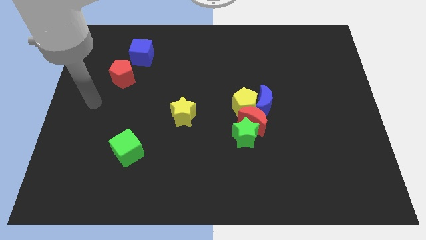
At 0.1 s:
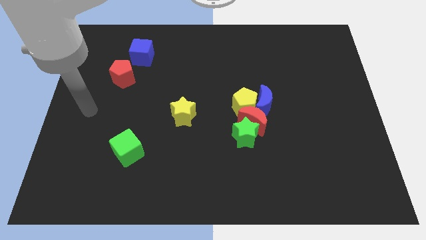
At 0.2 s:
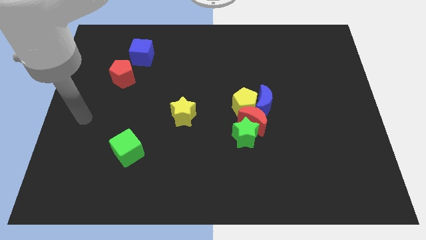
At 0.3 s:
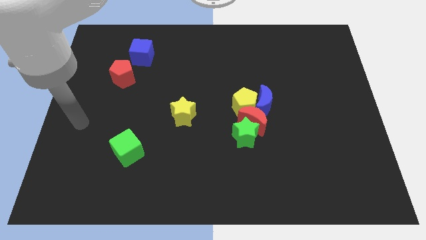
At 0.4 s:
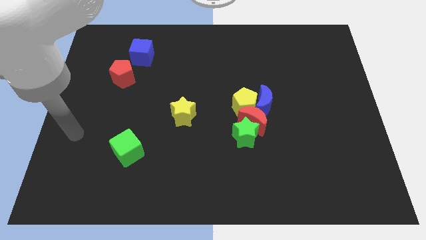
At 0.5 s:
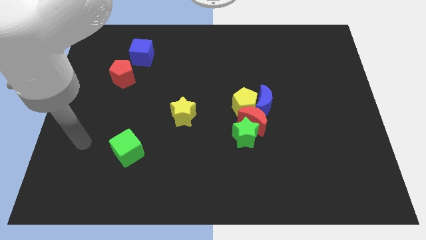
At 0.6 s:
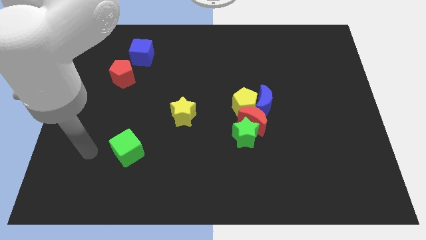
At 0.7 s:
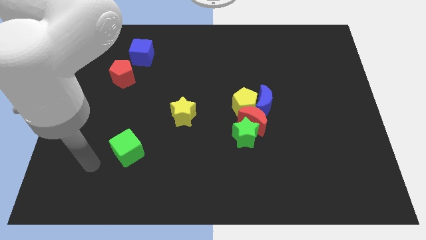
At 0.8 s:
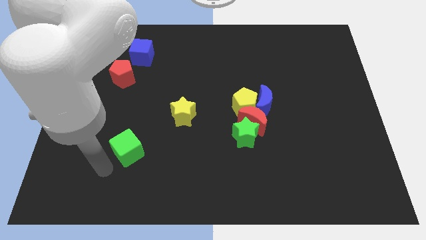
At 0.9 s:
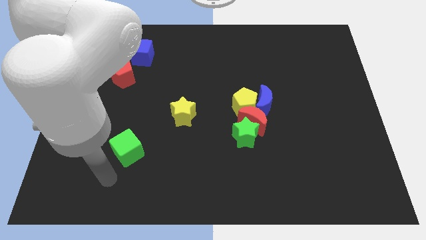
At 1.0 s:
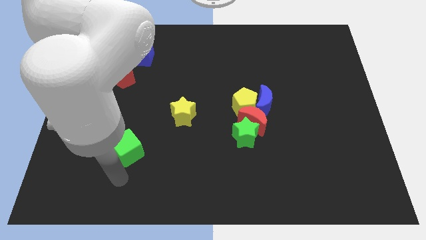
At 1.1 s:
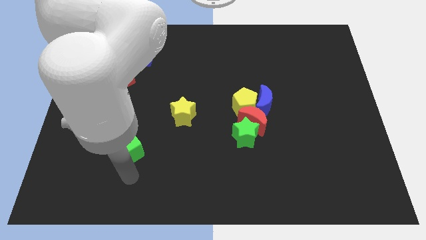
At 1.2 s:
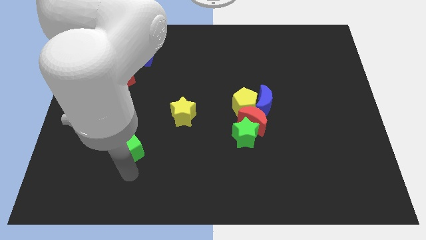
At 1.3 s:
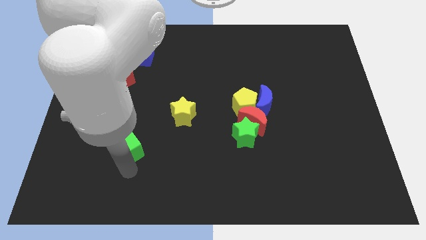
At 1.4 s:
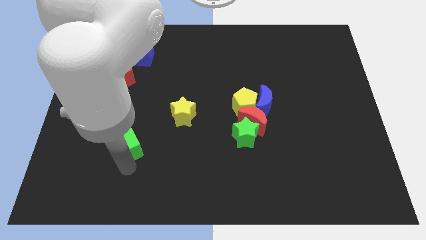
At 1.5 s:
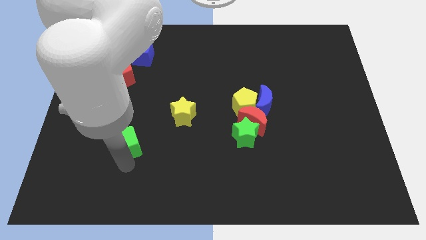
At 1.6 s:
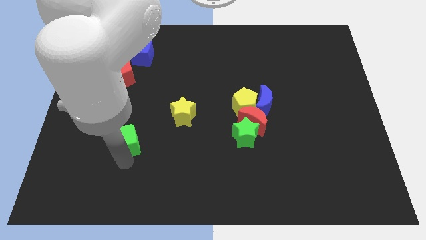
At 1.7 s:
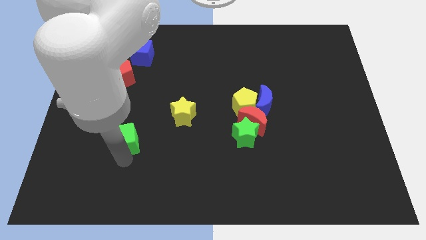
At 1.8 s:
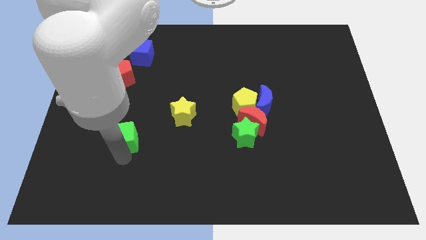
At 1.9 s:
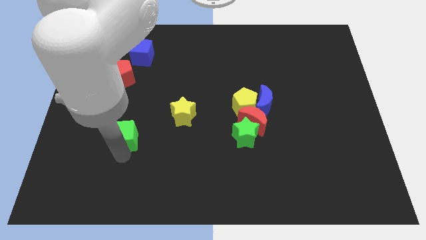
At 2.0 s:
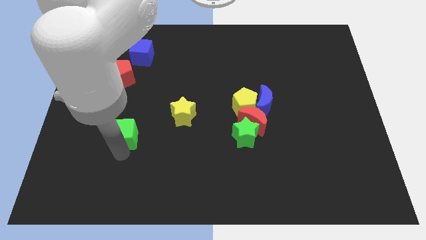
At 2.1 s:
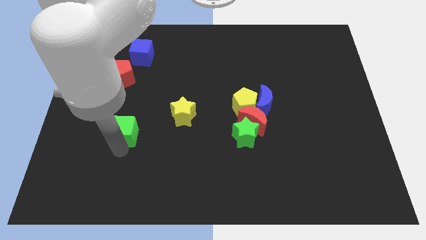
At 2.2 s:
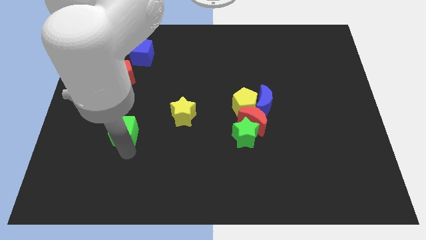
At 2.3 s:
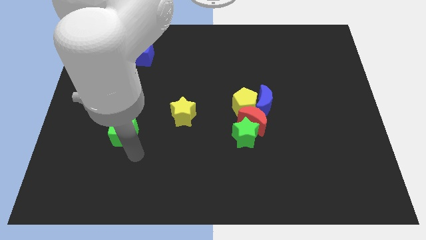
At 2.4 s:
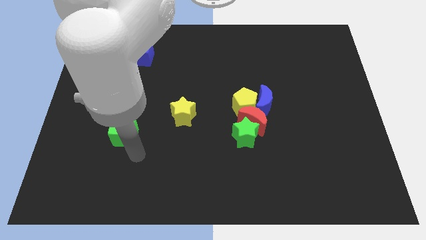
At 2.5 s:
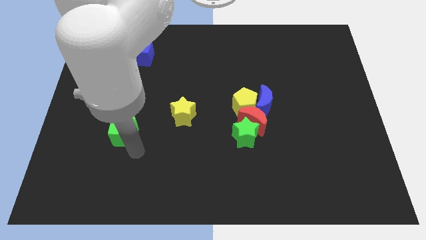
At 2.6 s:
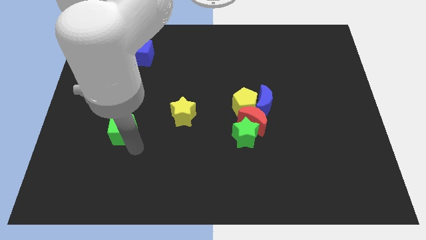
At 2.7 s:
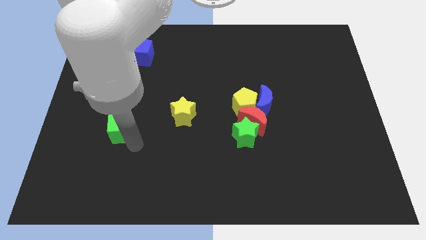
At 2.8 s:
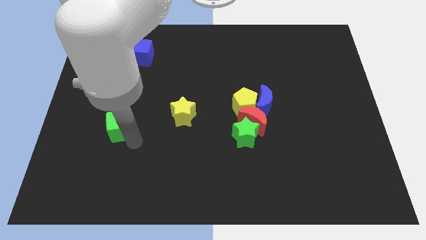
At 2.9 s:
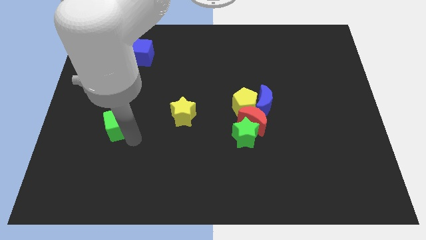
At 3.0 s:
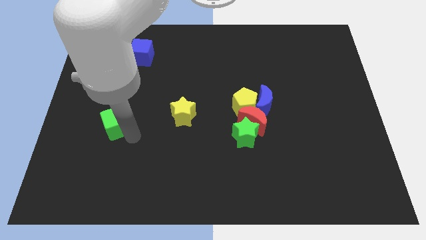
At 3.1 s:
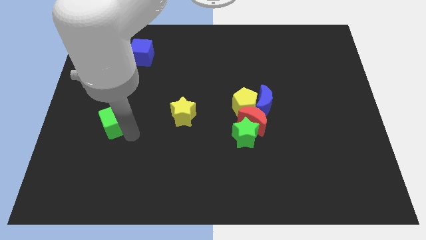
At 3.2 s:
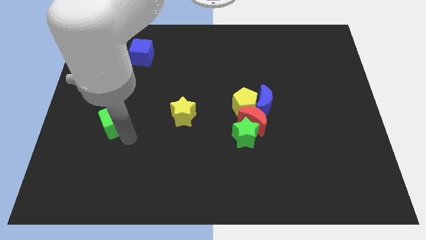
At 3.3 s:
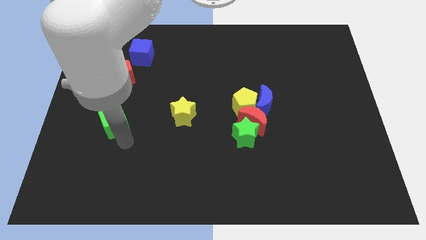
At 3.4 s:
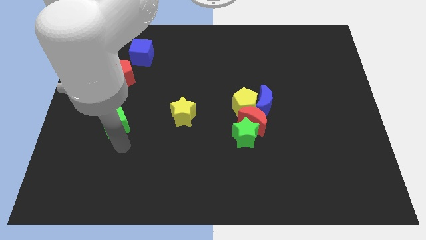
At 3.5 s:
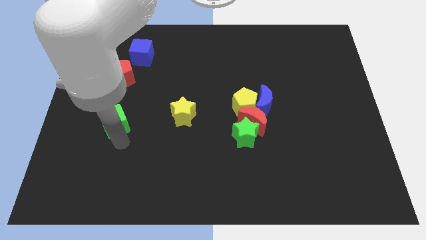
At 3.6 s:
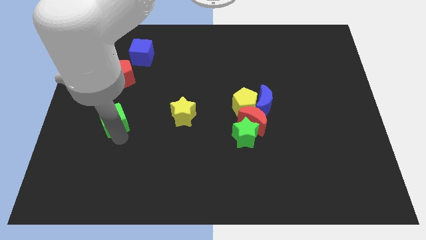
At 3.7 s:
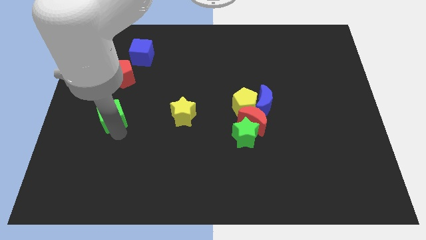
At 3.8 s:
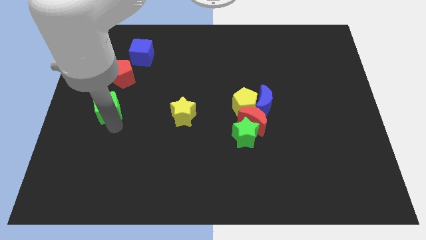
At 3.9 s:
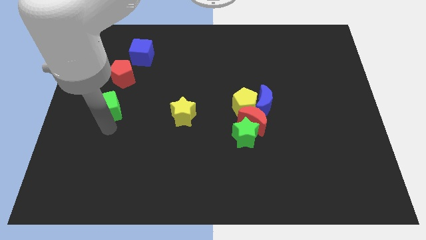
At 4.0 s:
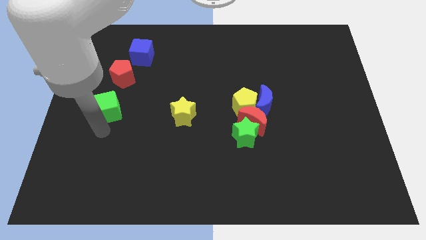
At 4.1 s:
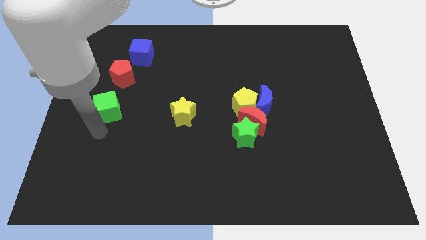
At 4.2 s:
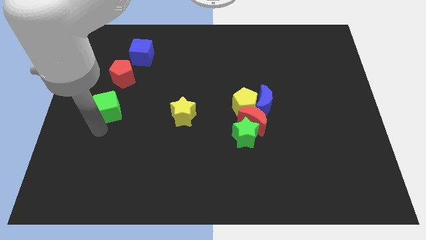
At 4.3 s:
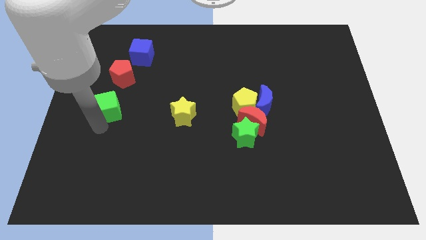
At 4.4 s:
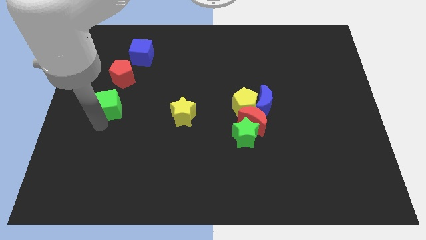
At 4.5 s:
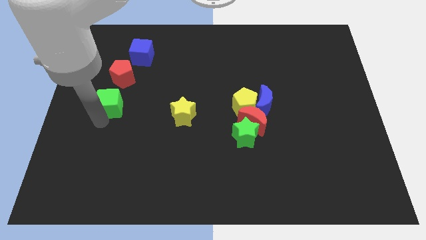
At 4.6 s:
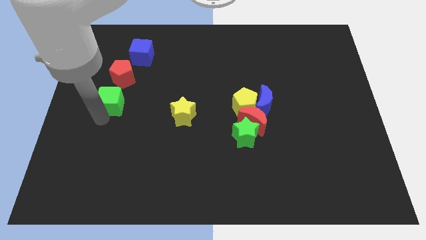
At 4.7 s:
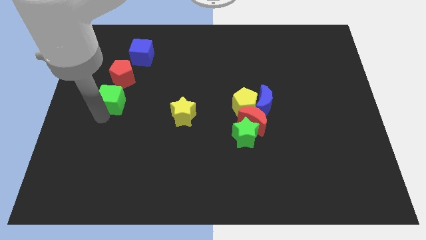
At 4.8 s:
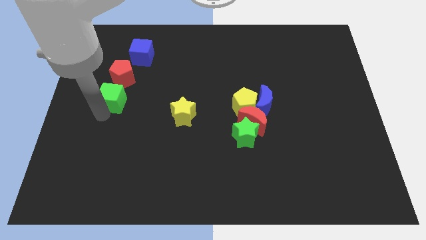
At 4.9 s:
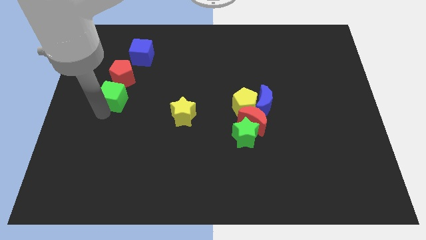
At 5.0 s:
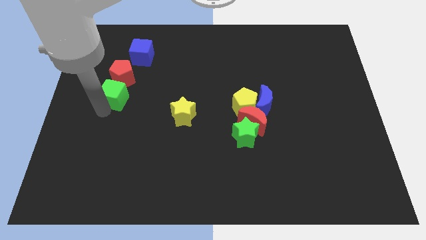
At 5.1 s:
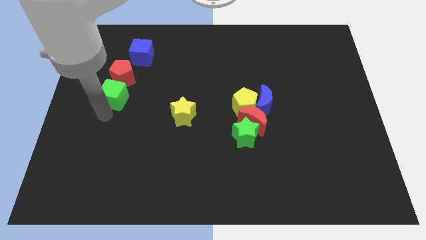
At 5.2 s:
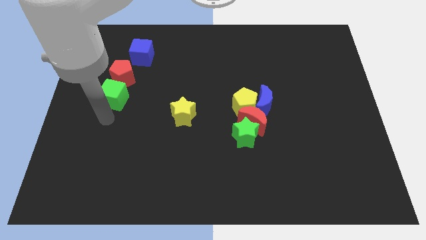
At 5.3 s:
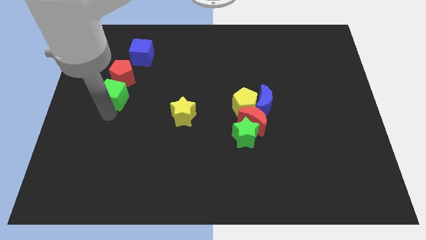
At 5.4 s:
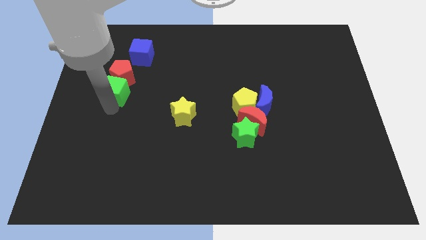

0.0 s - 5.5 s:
slide the green cube close to the red pentagon

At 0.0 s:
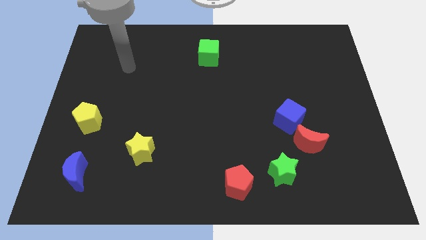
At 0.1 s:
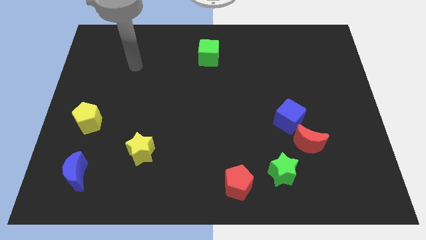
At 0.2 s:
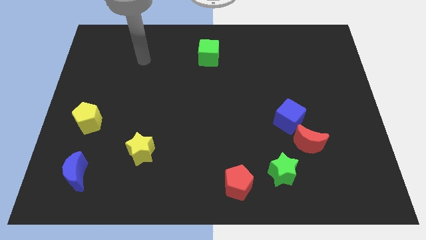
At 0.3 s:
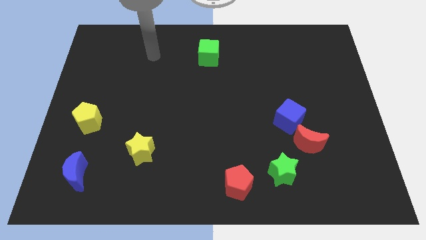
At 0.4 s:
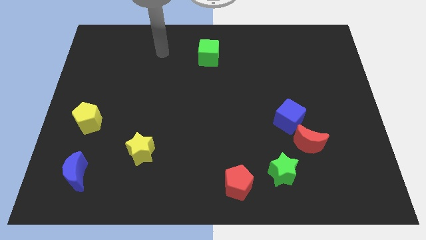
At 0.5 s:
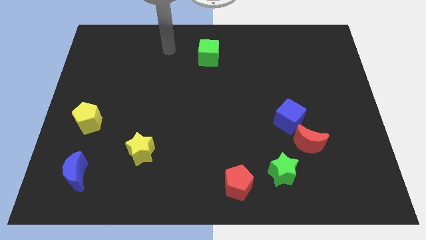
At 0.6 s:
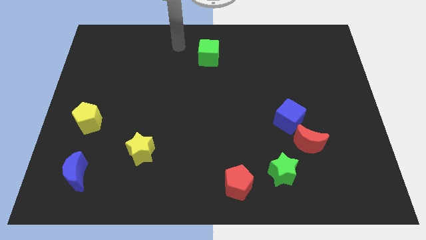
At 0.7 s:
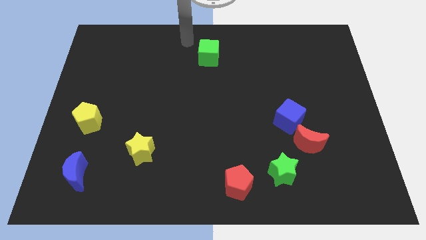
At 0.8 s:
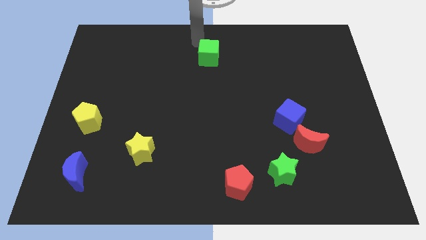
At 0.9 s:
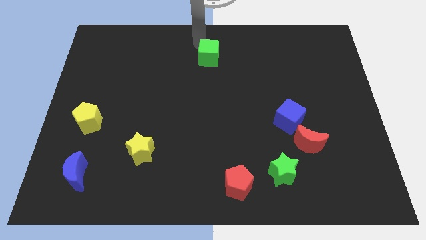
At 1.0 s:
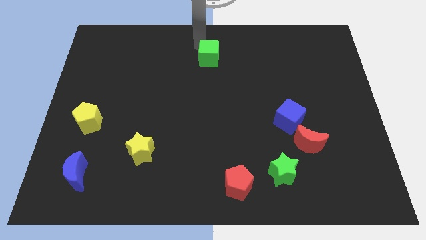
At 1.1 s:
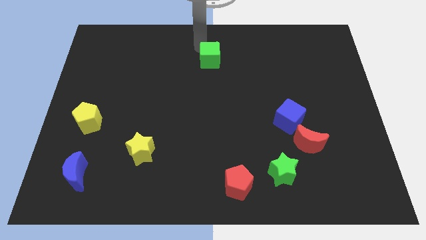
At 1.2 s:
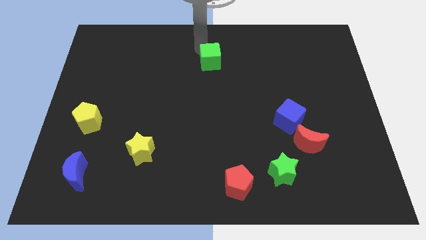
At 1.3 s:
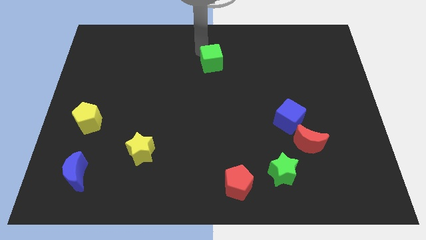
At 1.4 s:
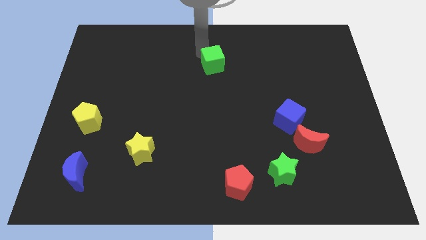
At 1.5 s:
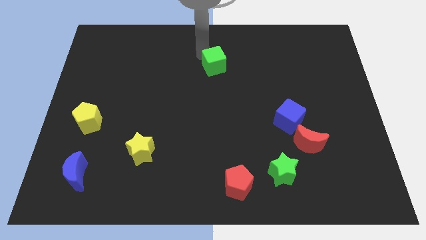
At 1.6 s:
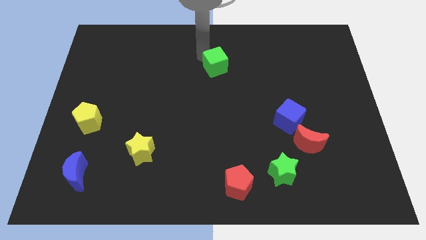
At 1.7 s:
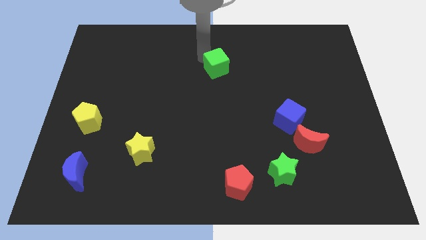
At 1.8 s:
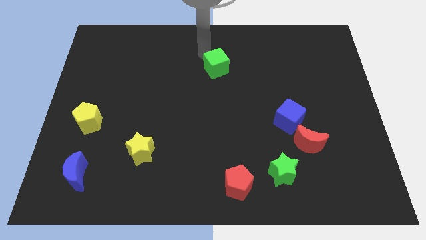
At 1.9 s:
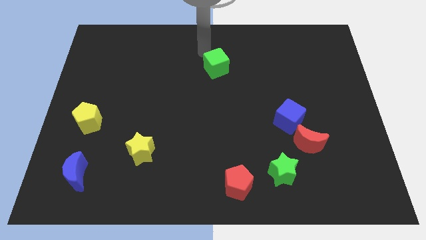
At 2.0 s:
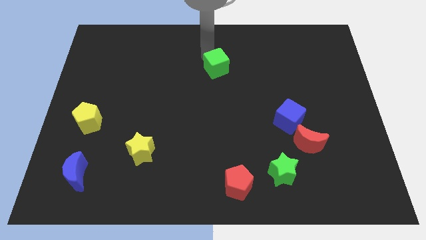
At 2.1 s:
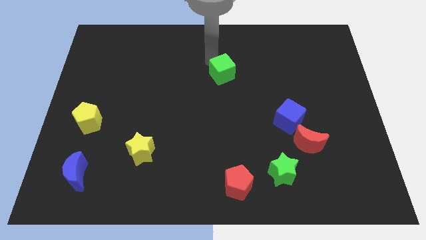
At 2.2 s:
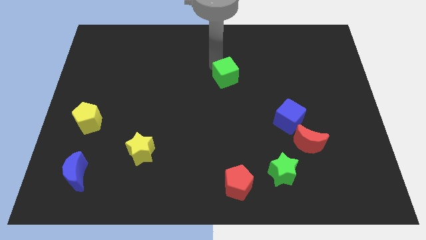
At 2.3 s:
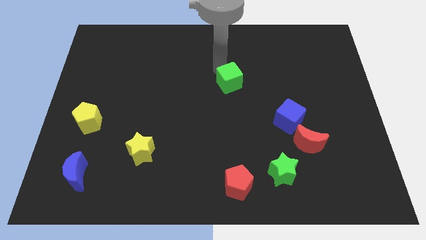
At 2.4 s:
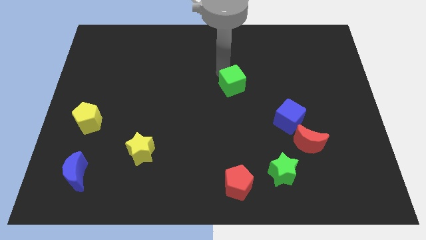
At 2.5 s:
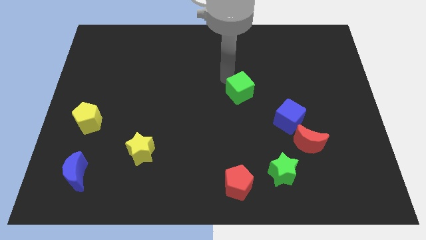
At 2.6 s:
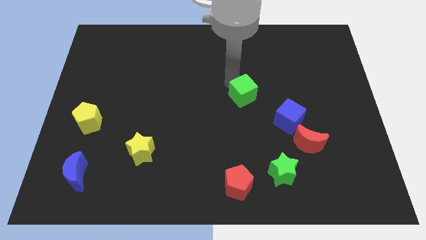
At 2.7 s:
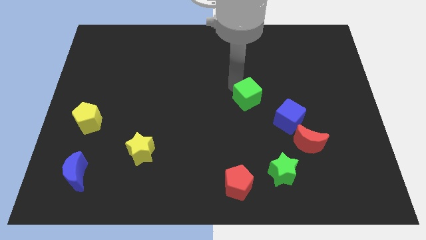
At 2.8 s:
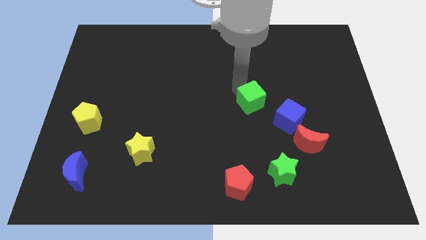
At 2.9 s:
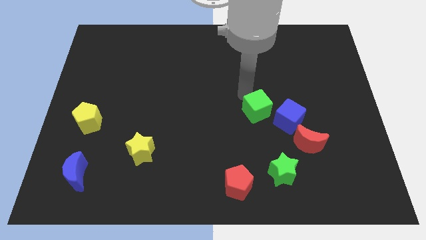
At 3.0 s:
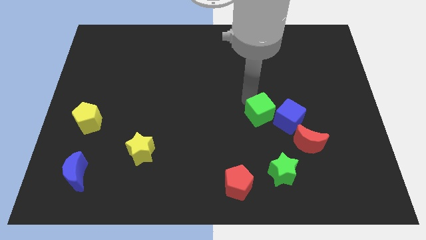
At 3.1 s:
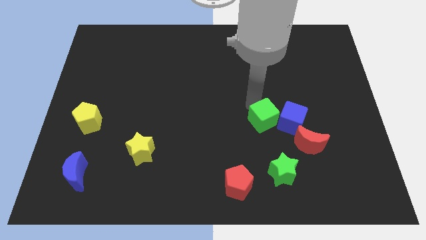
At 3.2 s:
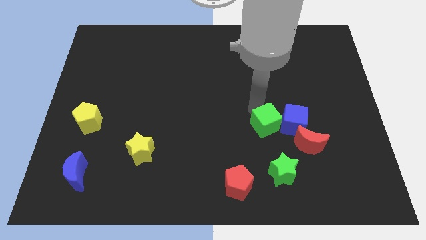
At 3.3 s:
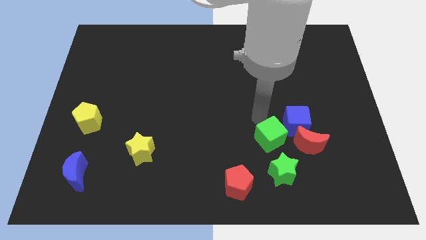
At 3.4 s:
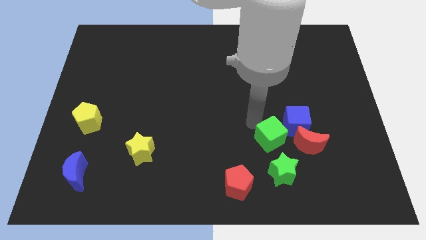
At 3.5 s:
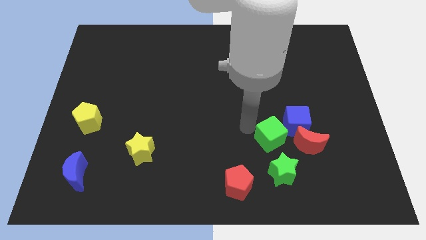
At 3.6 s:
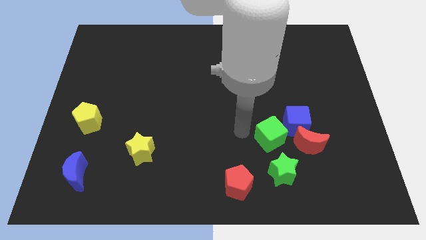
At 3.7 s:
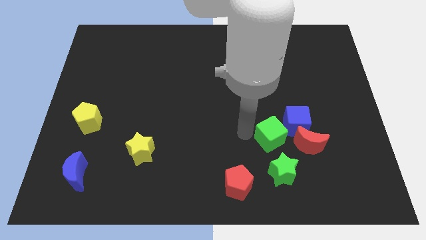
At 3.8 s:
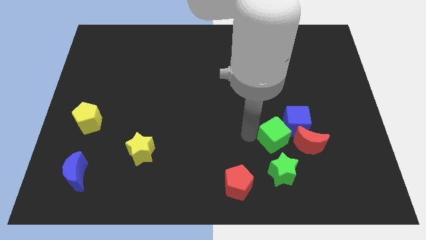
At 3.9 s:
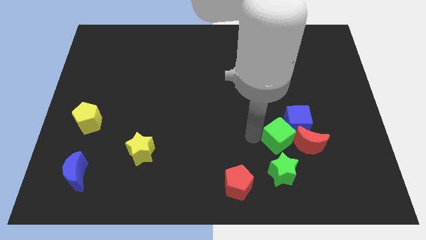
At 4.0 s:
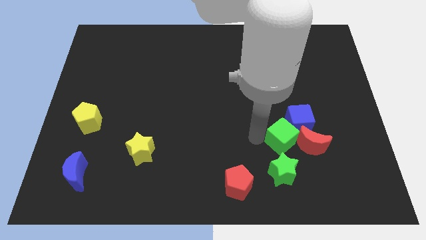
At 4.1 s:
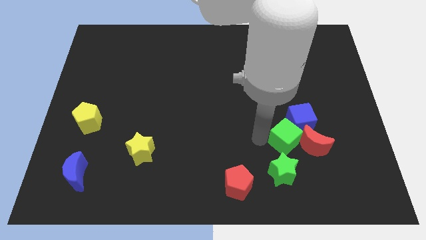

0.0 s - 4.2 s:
push the green cube next to the red moon
